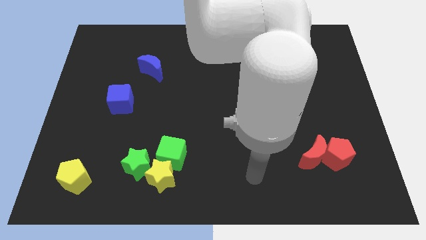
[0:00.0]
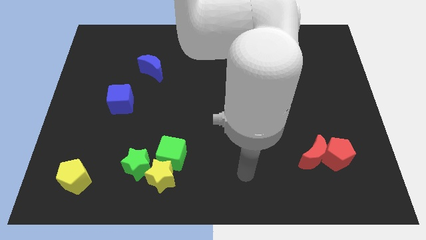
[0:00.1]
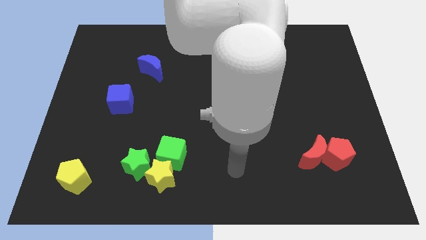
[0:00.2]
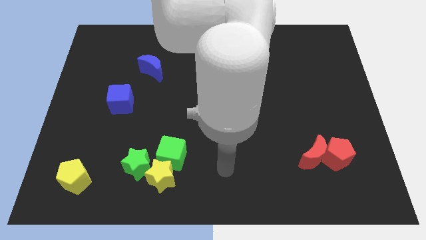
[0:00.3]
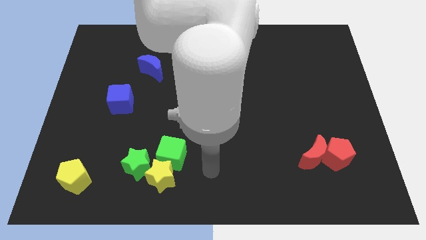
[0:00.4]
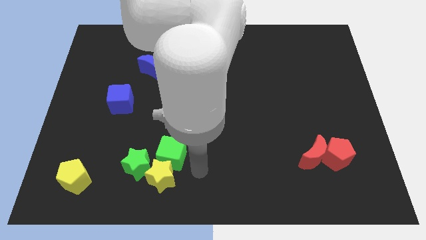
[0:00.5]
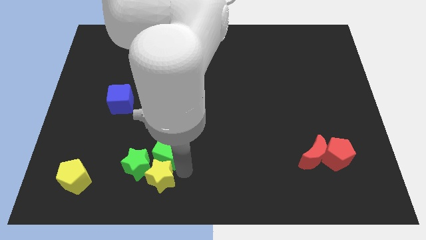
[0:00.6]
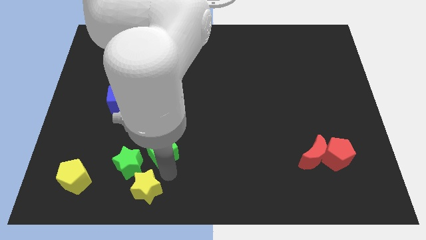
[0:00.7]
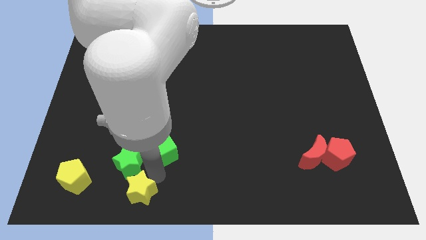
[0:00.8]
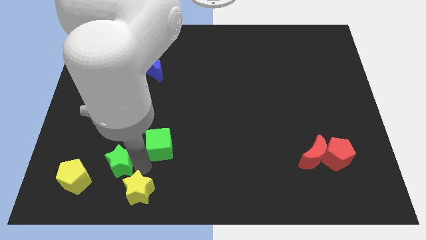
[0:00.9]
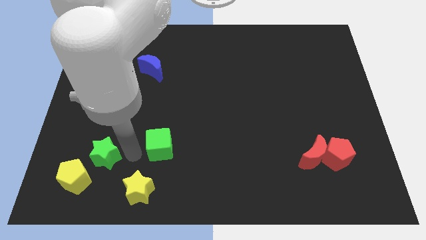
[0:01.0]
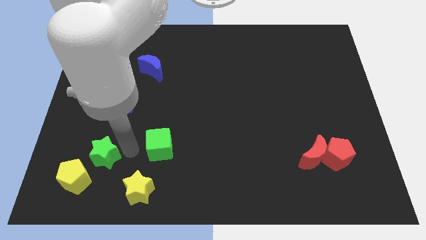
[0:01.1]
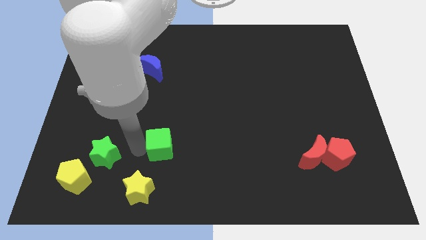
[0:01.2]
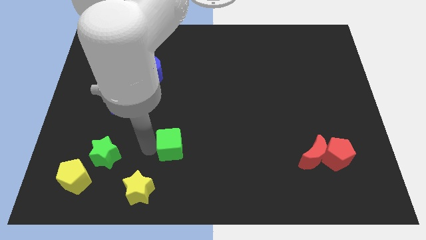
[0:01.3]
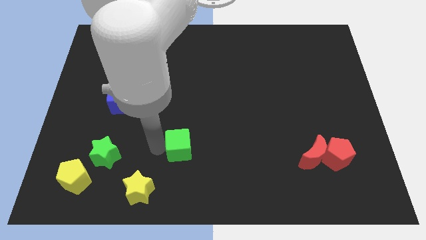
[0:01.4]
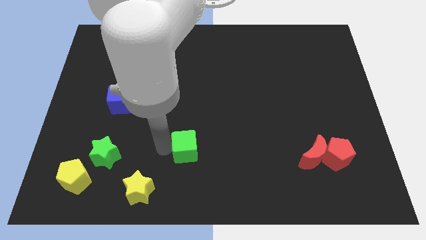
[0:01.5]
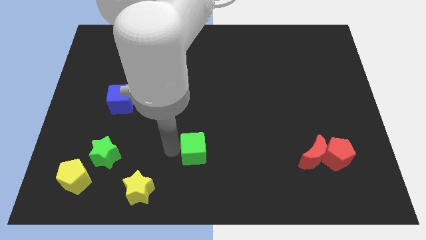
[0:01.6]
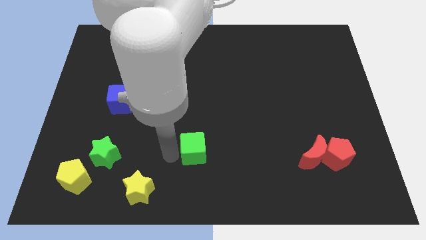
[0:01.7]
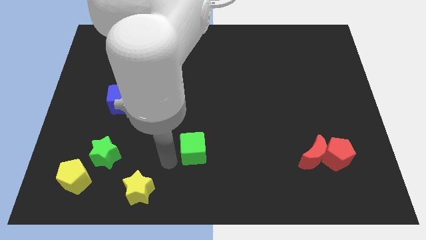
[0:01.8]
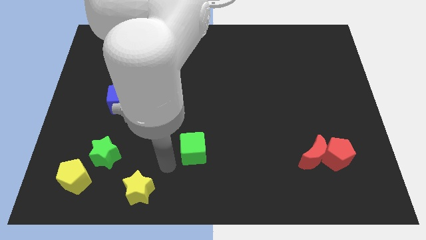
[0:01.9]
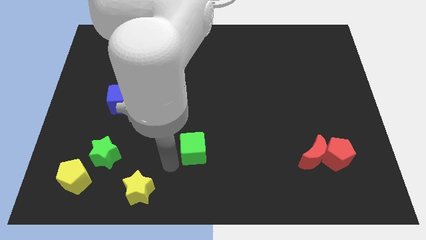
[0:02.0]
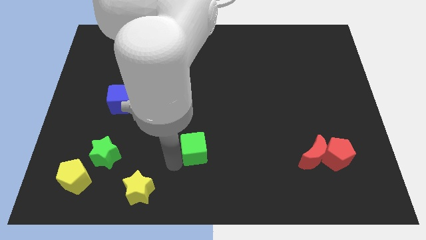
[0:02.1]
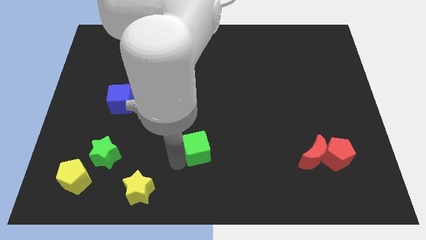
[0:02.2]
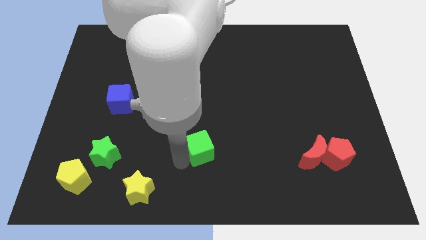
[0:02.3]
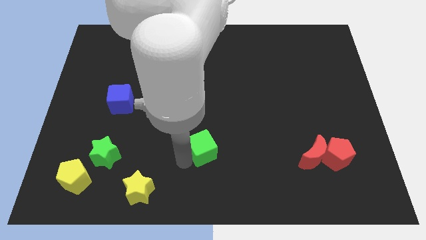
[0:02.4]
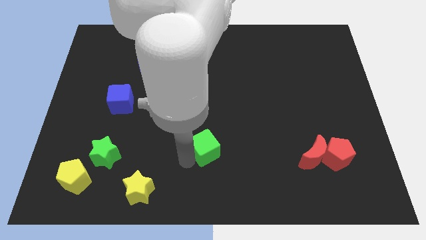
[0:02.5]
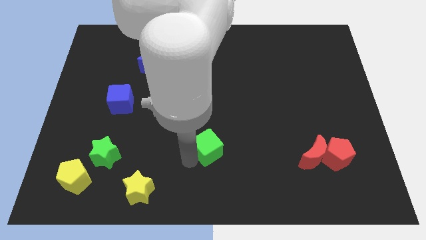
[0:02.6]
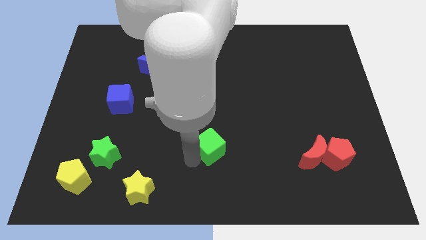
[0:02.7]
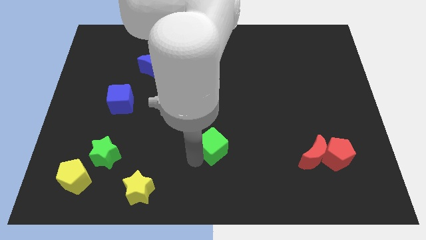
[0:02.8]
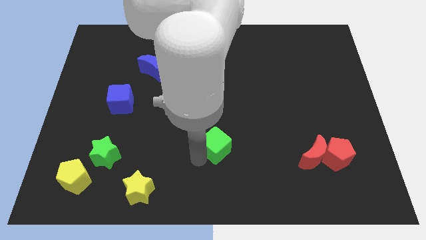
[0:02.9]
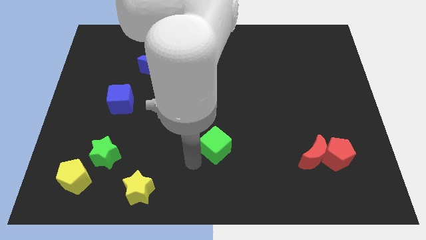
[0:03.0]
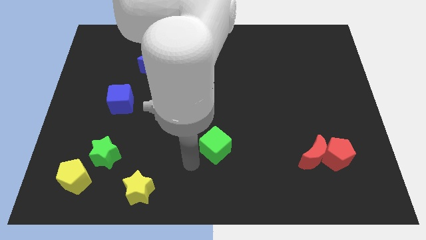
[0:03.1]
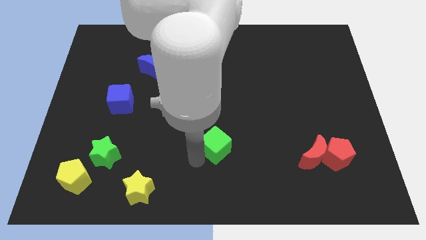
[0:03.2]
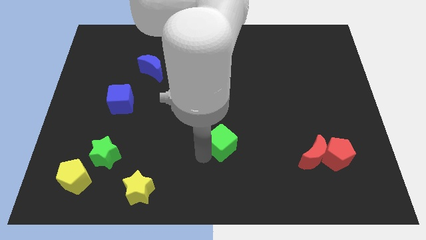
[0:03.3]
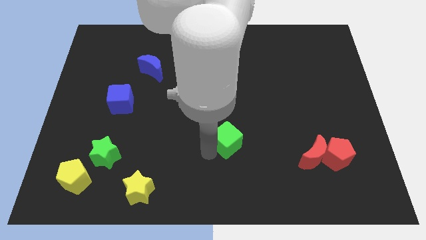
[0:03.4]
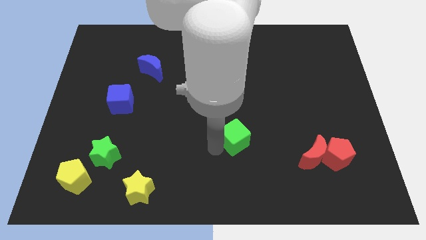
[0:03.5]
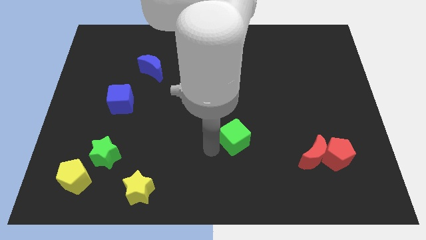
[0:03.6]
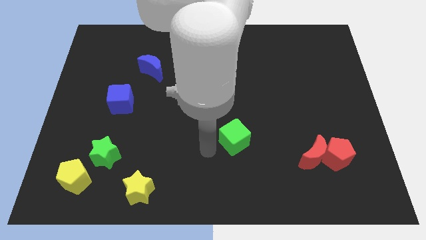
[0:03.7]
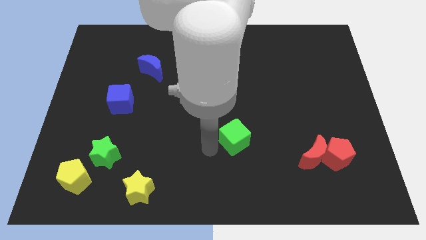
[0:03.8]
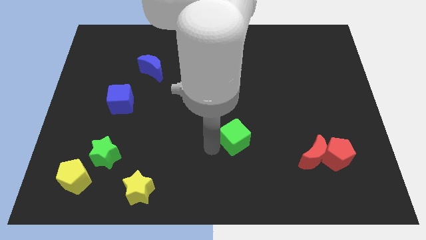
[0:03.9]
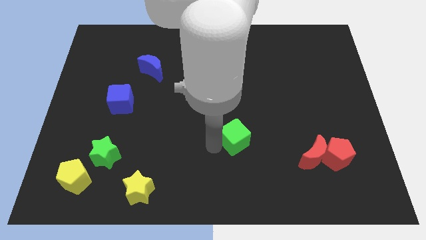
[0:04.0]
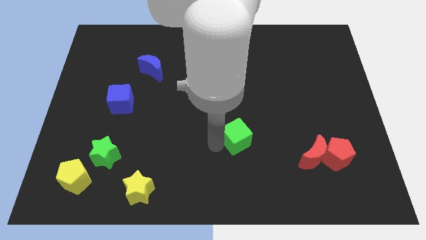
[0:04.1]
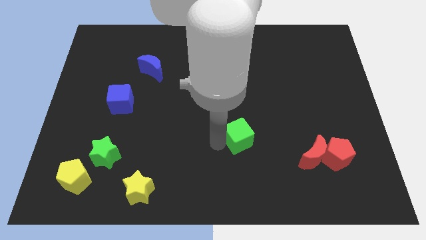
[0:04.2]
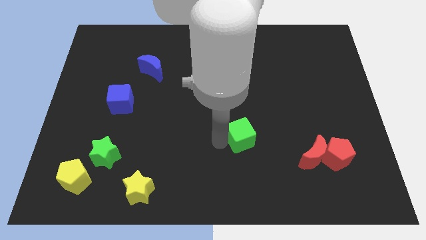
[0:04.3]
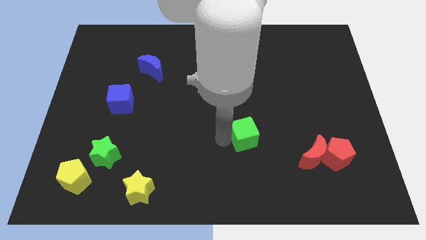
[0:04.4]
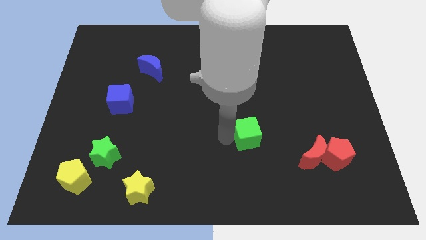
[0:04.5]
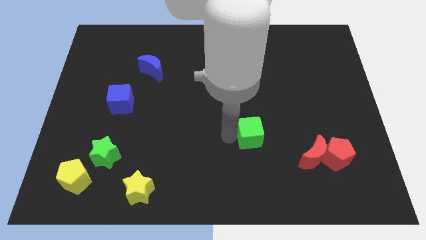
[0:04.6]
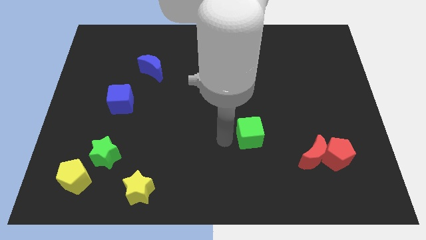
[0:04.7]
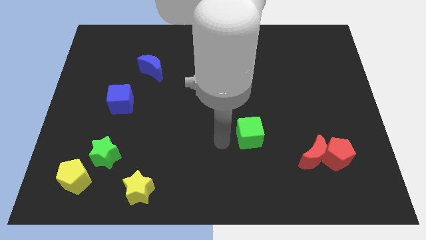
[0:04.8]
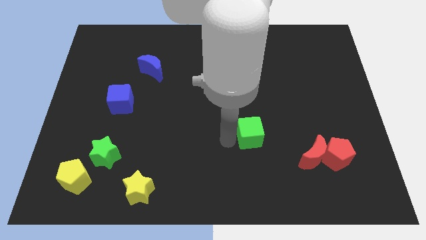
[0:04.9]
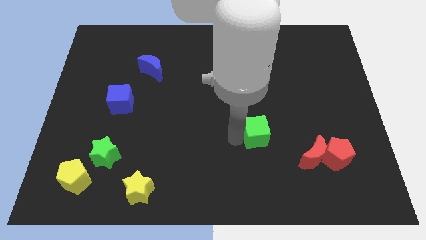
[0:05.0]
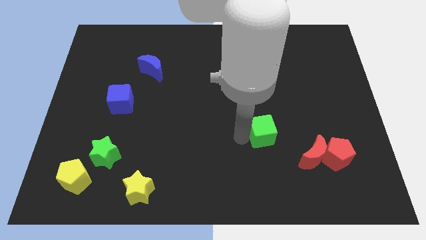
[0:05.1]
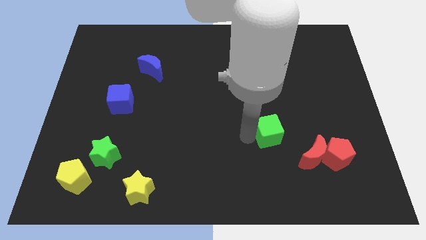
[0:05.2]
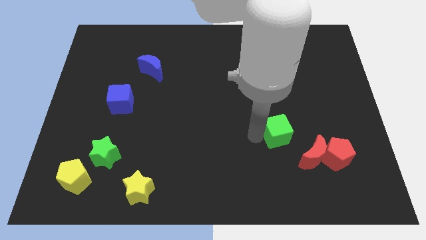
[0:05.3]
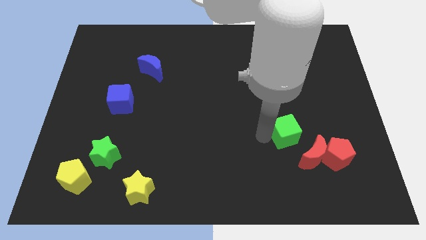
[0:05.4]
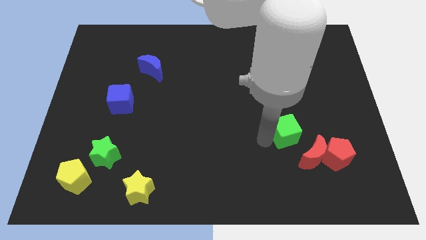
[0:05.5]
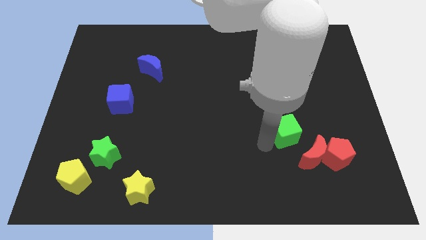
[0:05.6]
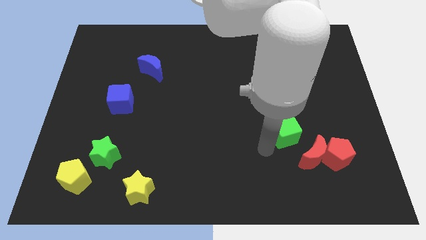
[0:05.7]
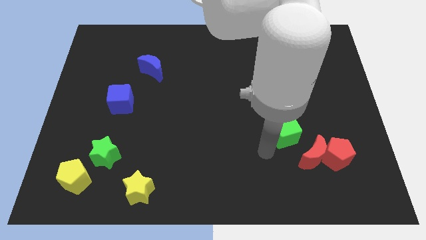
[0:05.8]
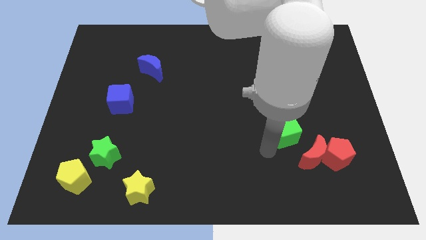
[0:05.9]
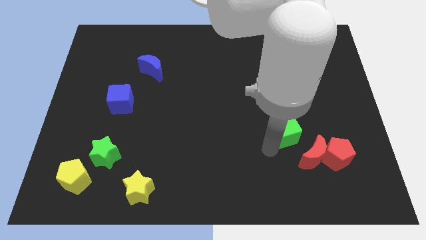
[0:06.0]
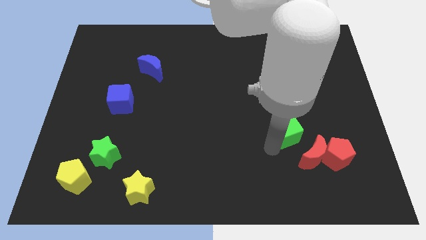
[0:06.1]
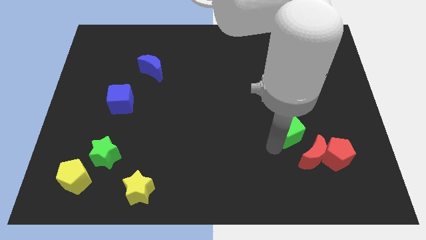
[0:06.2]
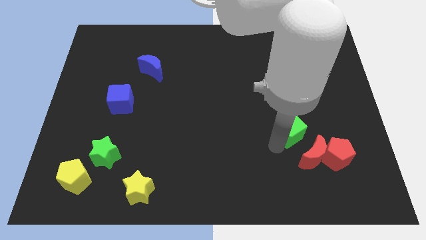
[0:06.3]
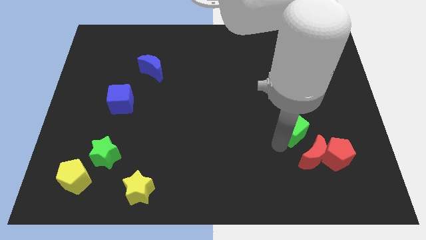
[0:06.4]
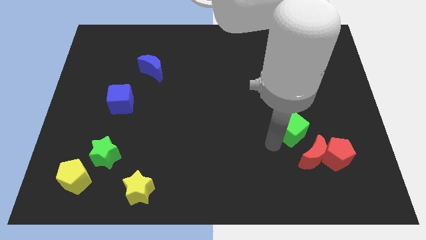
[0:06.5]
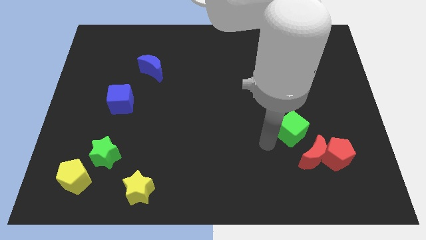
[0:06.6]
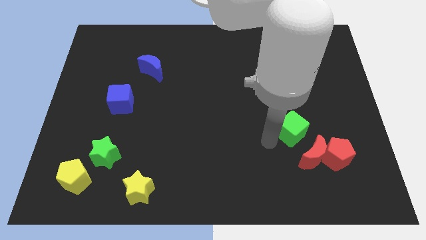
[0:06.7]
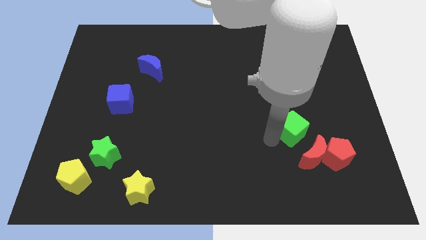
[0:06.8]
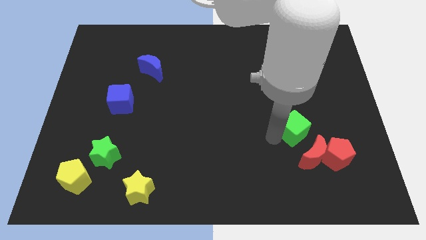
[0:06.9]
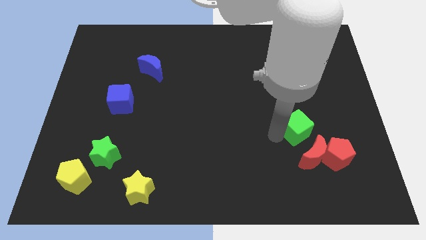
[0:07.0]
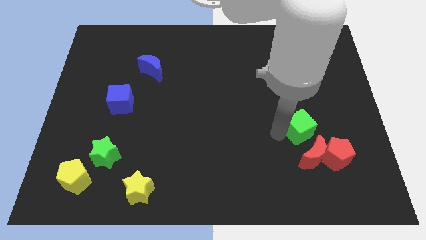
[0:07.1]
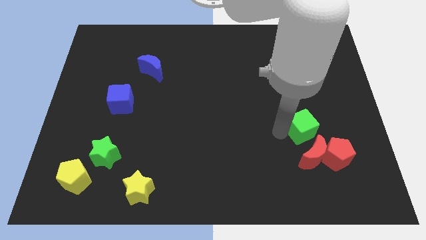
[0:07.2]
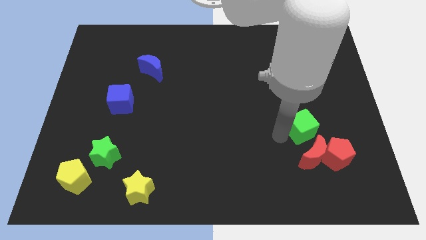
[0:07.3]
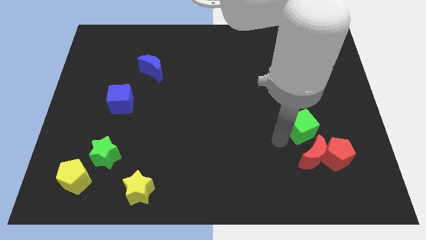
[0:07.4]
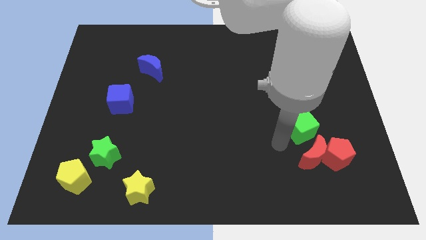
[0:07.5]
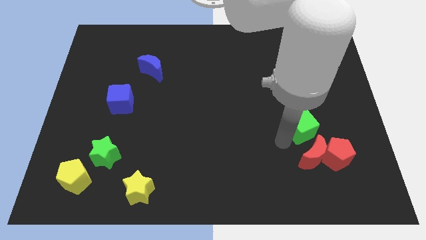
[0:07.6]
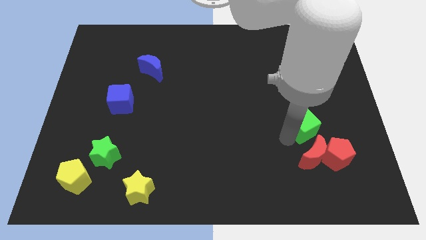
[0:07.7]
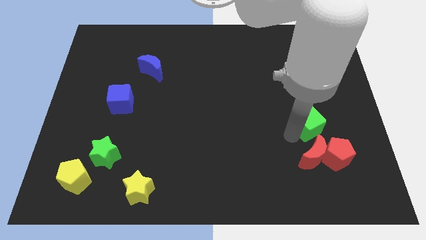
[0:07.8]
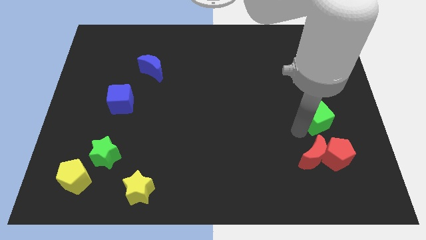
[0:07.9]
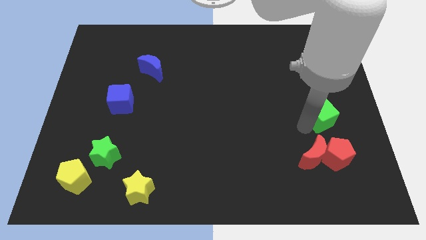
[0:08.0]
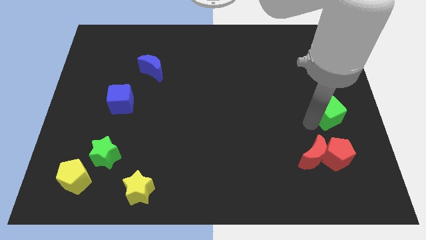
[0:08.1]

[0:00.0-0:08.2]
push the green cube to the center right
